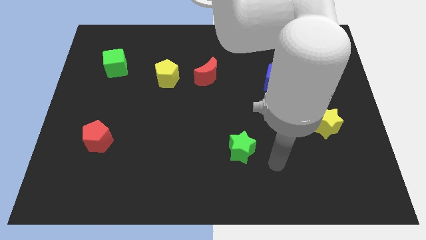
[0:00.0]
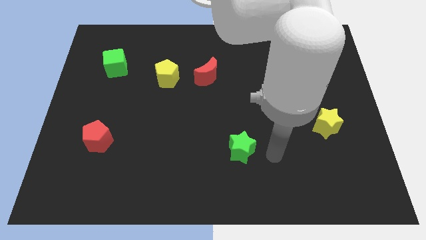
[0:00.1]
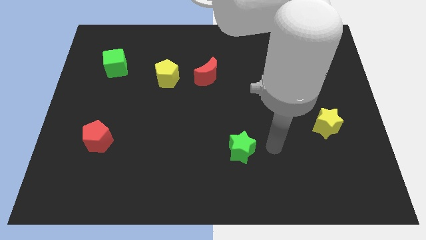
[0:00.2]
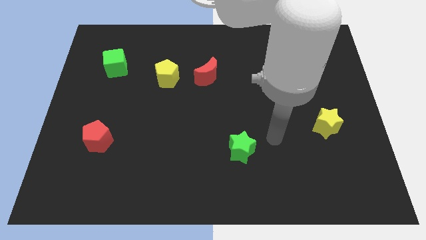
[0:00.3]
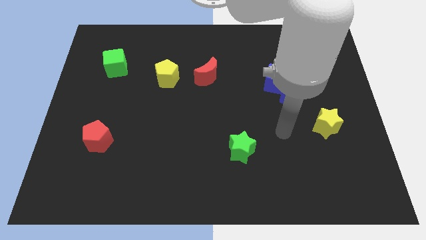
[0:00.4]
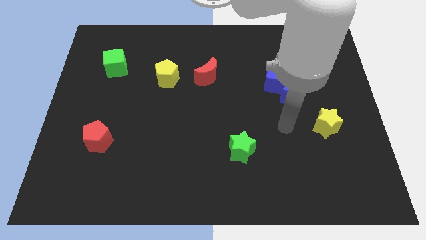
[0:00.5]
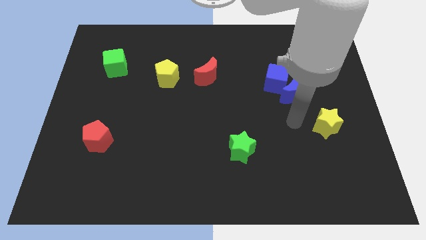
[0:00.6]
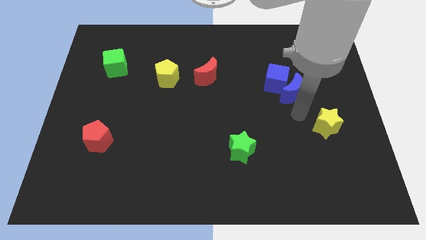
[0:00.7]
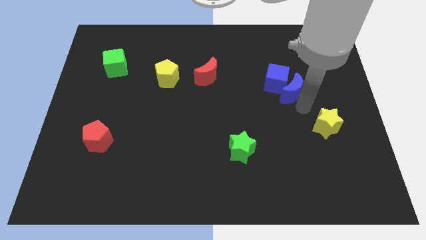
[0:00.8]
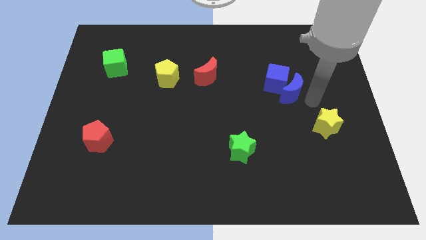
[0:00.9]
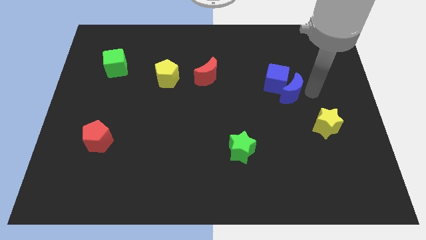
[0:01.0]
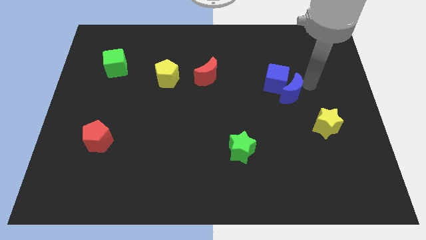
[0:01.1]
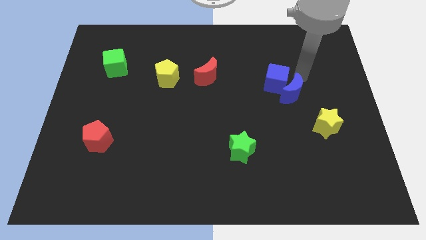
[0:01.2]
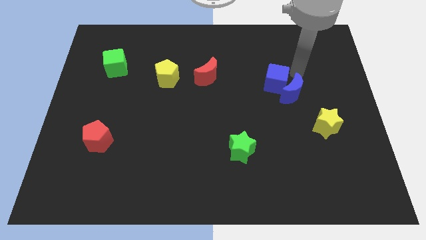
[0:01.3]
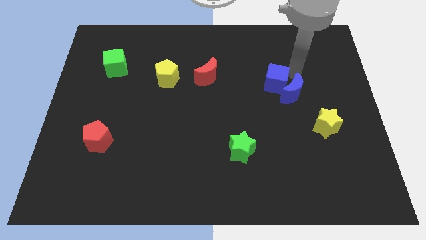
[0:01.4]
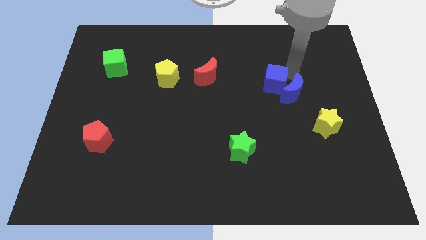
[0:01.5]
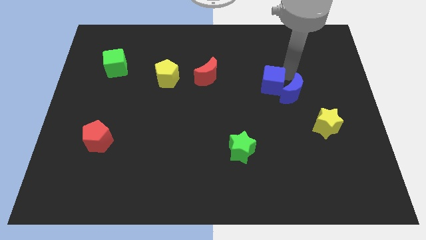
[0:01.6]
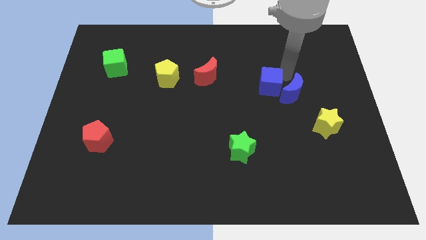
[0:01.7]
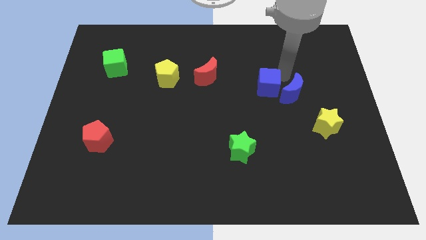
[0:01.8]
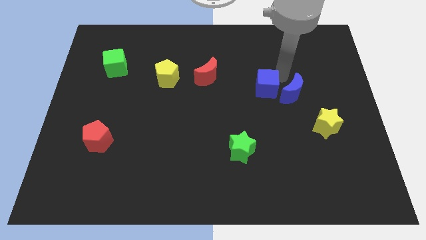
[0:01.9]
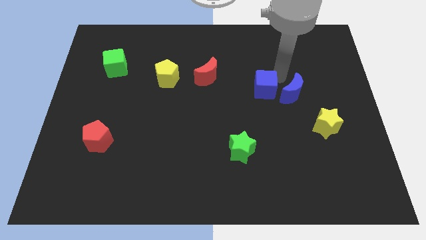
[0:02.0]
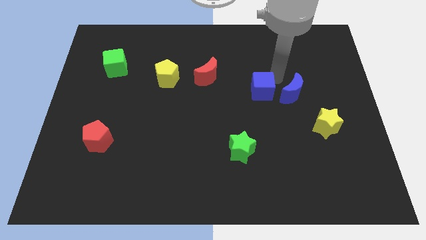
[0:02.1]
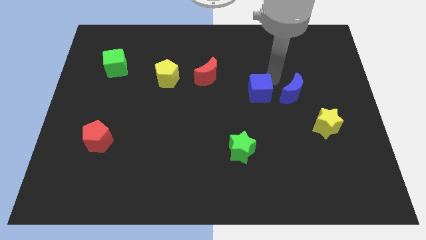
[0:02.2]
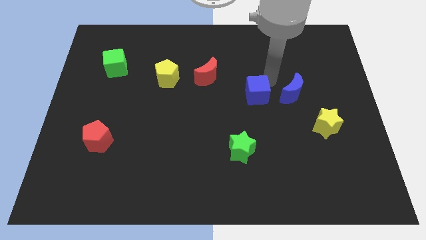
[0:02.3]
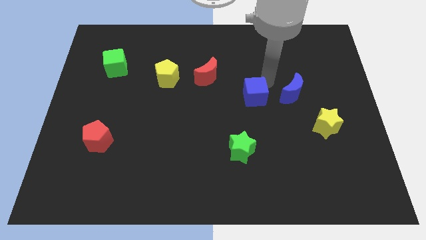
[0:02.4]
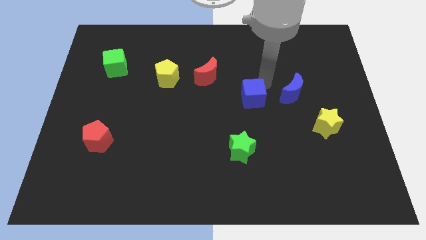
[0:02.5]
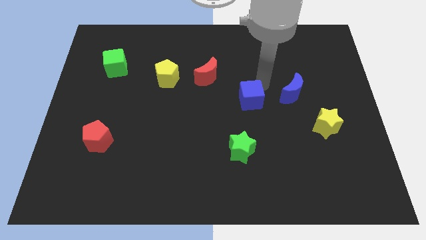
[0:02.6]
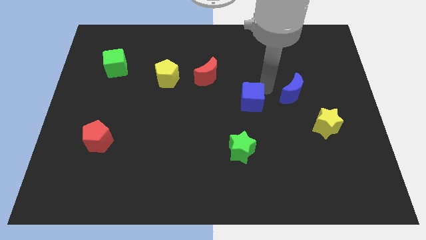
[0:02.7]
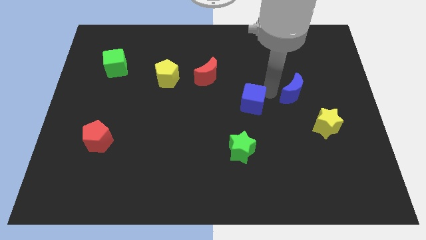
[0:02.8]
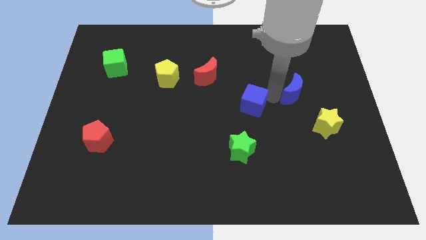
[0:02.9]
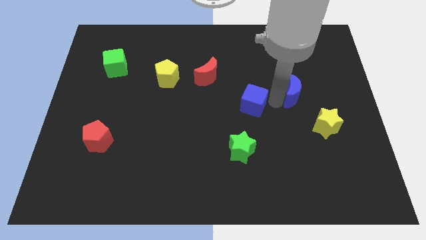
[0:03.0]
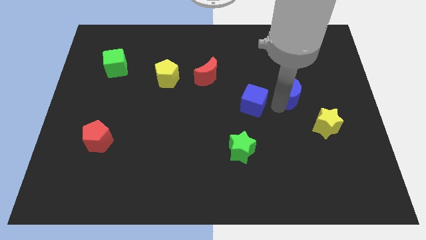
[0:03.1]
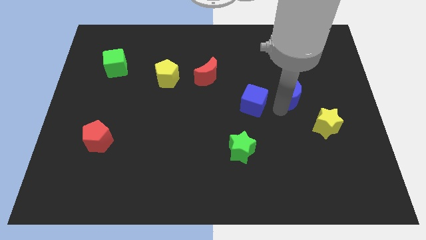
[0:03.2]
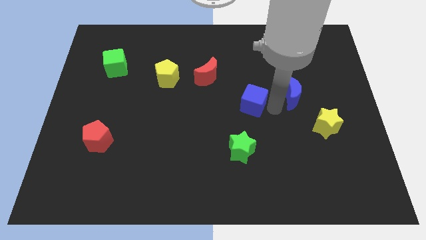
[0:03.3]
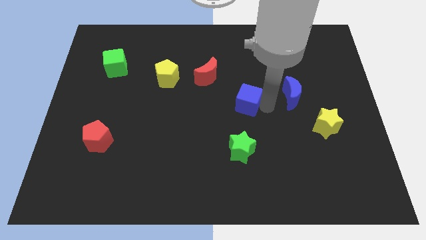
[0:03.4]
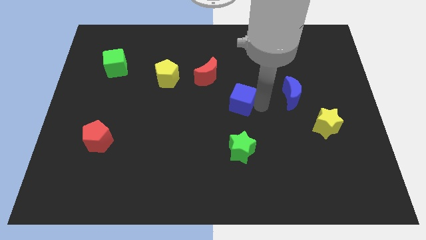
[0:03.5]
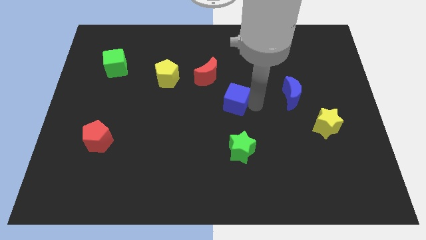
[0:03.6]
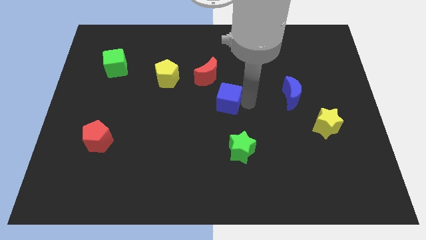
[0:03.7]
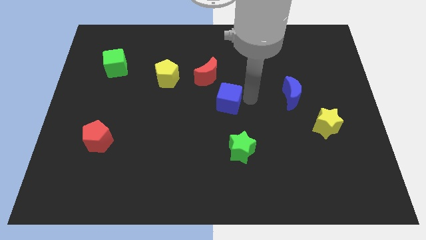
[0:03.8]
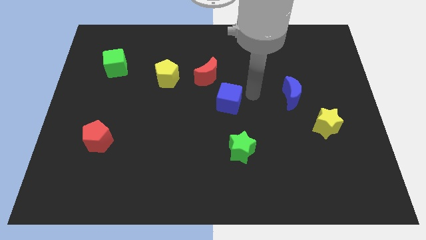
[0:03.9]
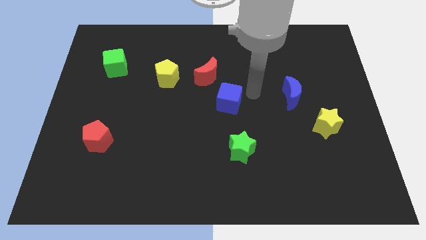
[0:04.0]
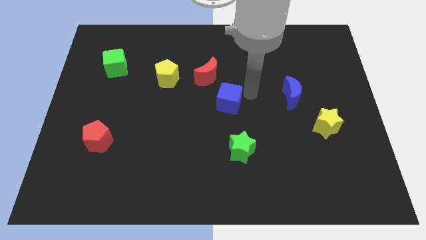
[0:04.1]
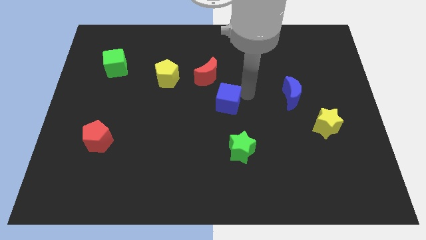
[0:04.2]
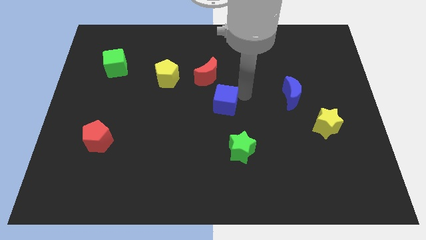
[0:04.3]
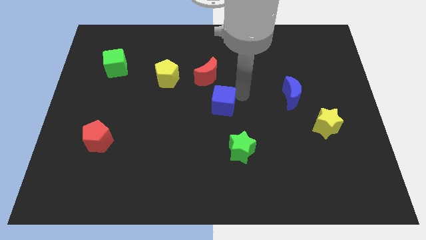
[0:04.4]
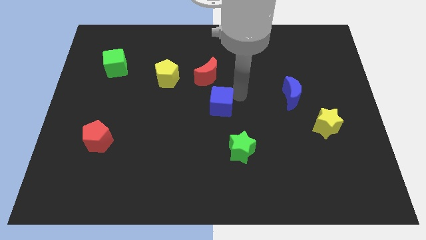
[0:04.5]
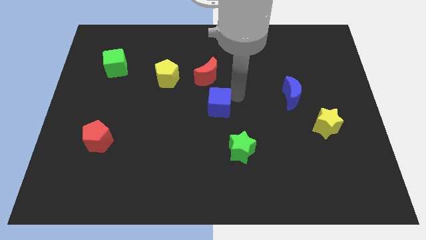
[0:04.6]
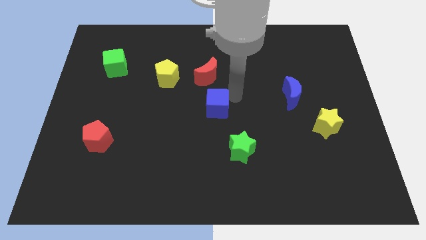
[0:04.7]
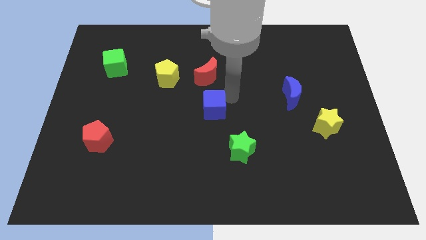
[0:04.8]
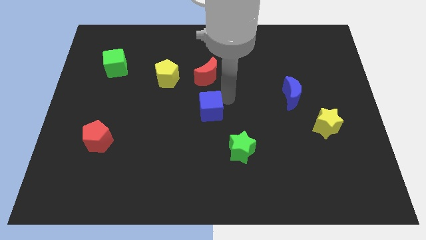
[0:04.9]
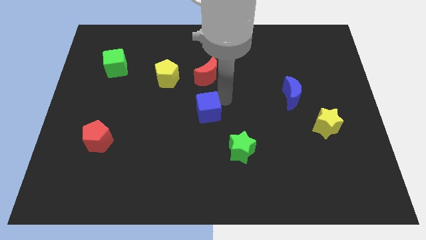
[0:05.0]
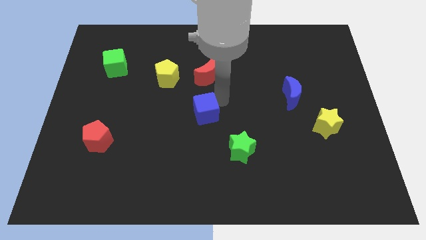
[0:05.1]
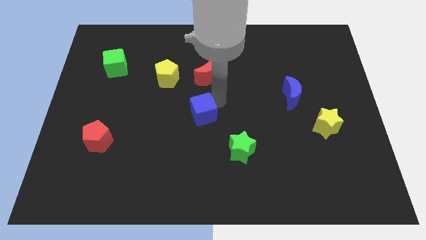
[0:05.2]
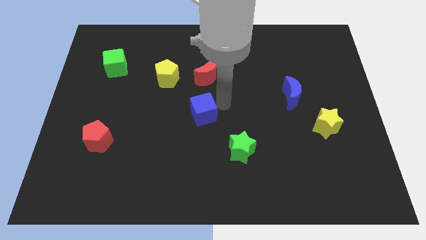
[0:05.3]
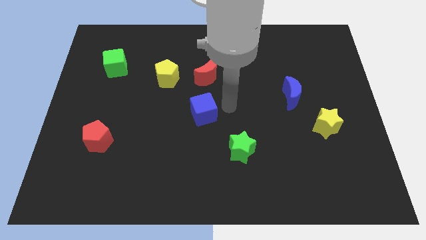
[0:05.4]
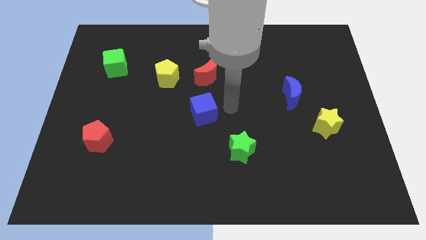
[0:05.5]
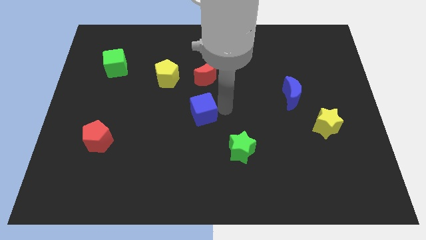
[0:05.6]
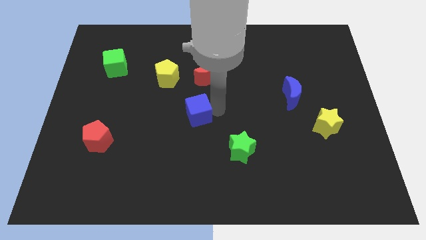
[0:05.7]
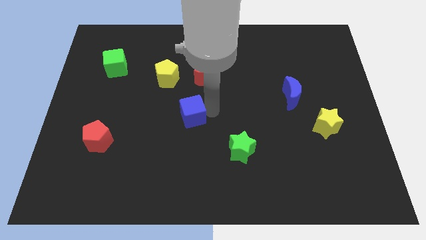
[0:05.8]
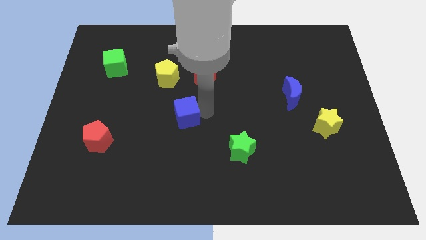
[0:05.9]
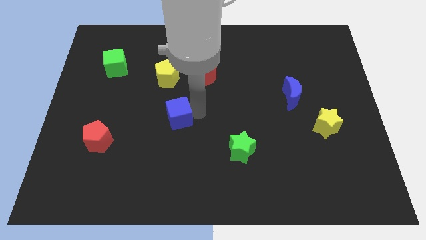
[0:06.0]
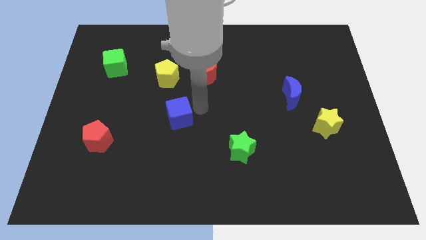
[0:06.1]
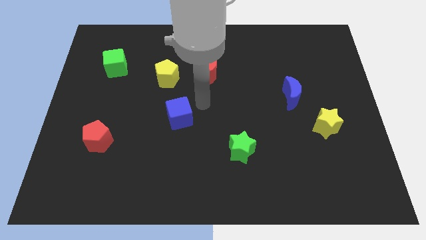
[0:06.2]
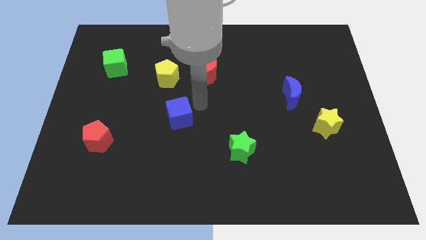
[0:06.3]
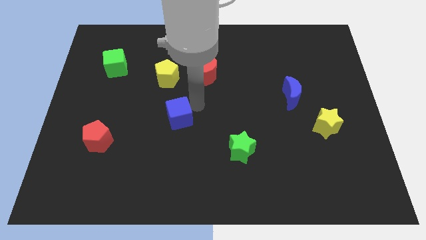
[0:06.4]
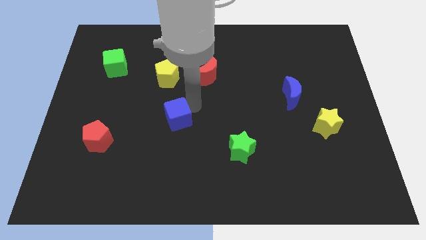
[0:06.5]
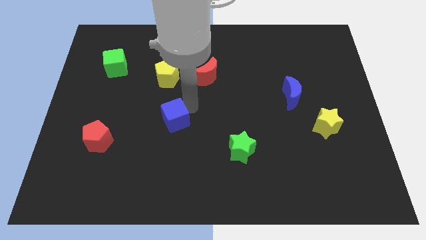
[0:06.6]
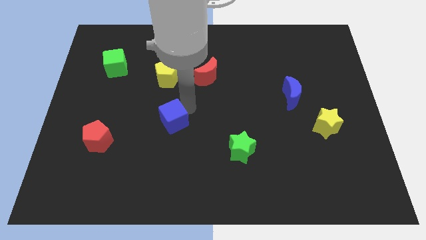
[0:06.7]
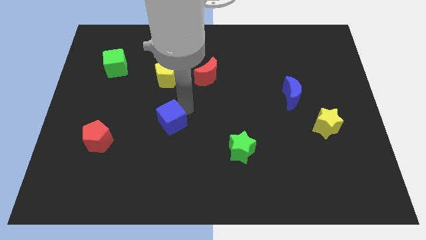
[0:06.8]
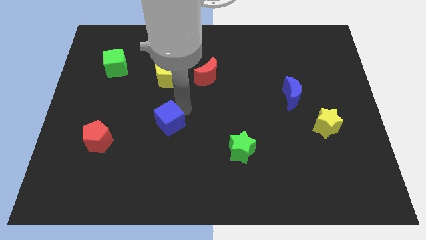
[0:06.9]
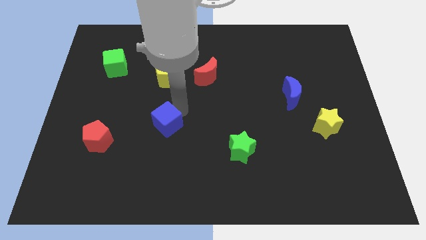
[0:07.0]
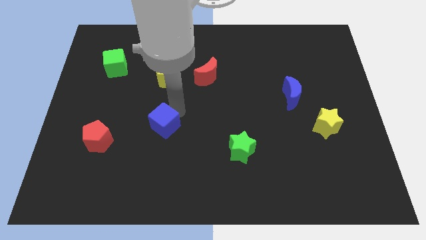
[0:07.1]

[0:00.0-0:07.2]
move the blue cube right of the red pentagon
